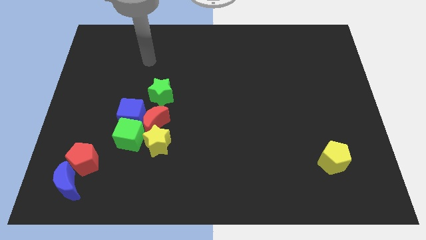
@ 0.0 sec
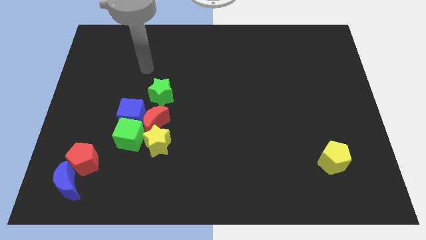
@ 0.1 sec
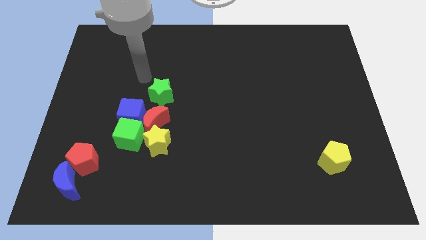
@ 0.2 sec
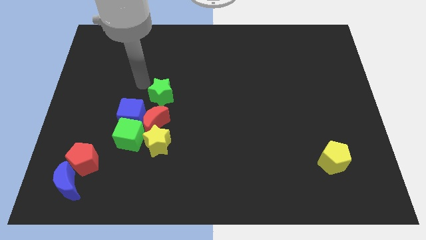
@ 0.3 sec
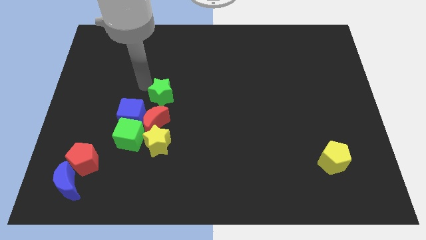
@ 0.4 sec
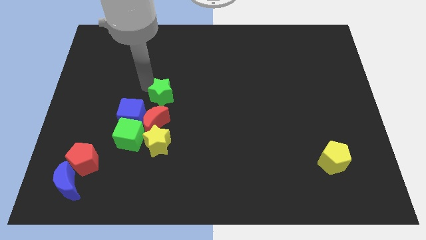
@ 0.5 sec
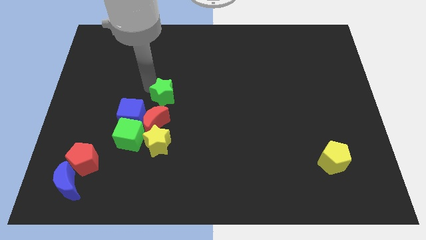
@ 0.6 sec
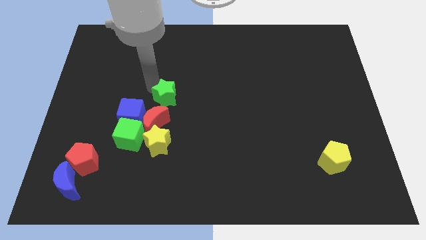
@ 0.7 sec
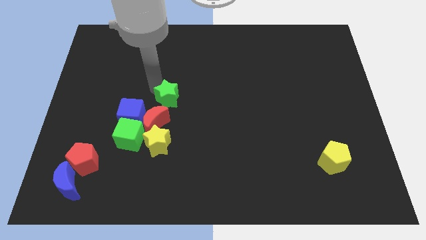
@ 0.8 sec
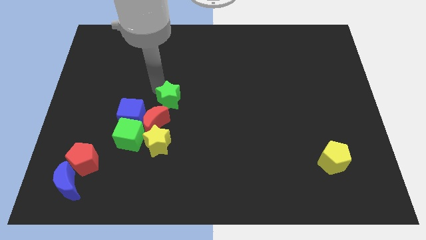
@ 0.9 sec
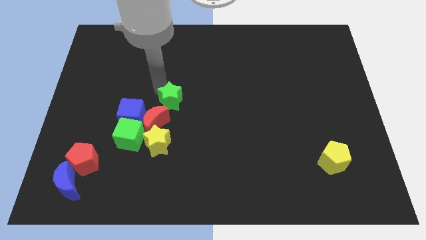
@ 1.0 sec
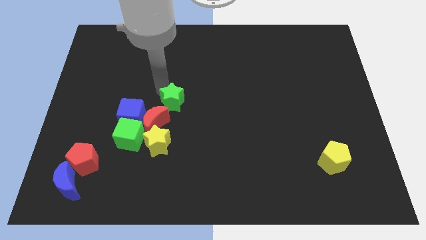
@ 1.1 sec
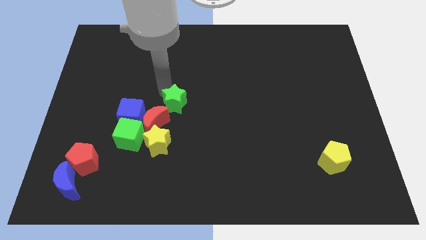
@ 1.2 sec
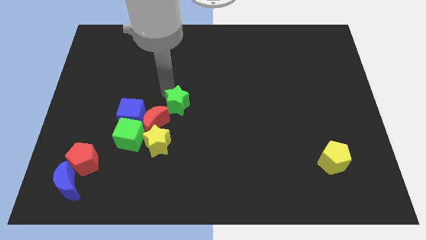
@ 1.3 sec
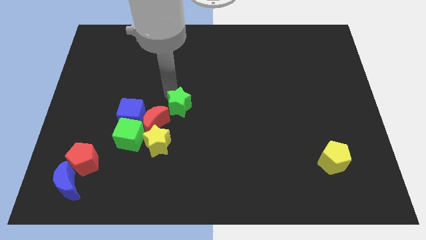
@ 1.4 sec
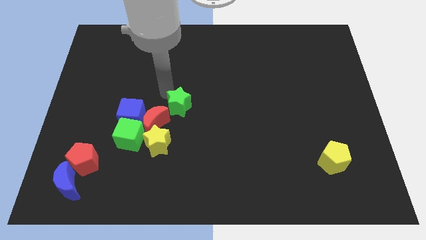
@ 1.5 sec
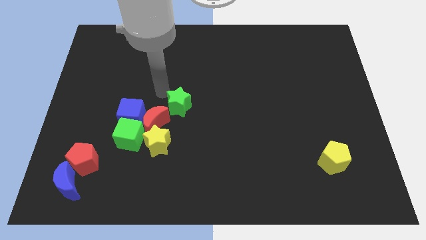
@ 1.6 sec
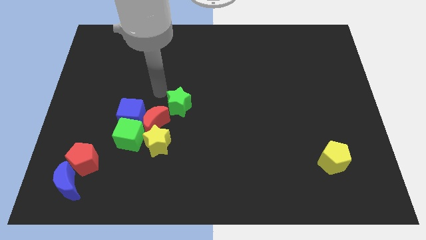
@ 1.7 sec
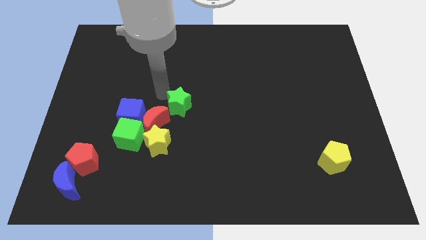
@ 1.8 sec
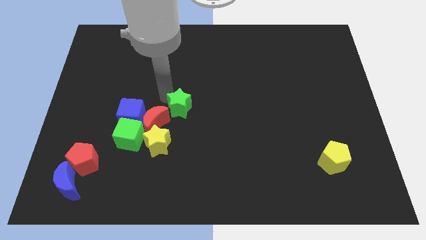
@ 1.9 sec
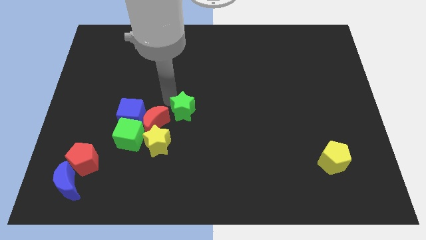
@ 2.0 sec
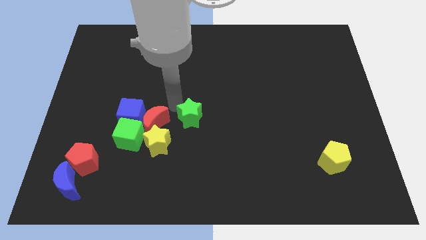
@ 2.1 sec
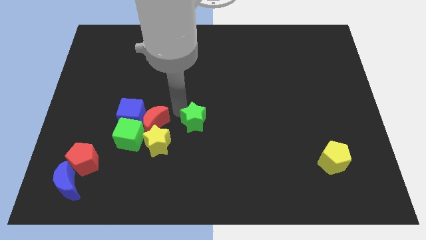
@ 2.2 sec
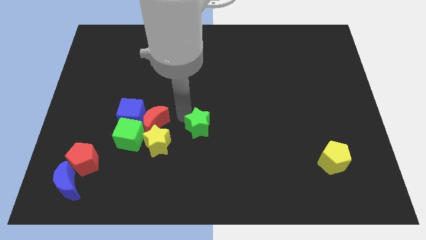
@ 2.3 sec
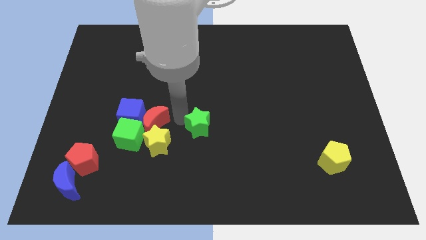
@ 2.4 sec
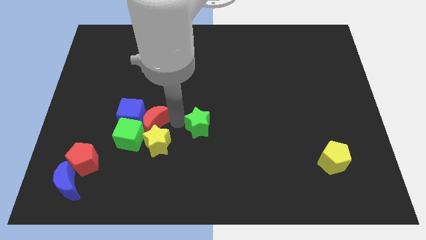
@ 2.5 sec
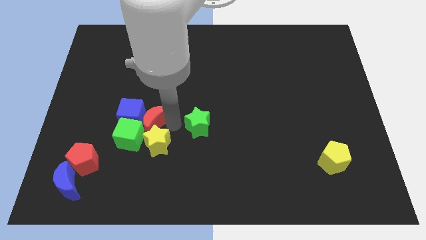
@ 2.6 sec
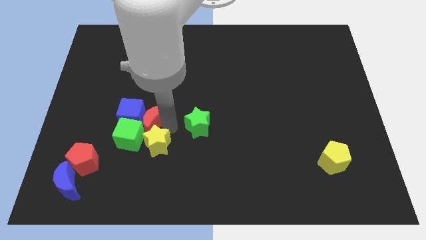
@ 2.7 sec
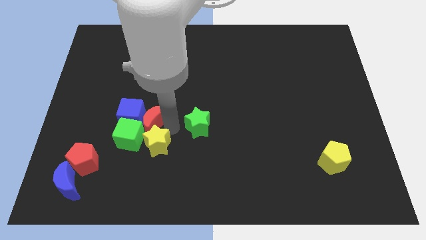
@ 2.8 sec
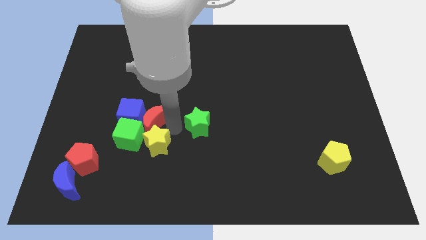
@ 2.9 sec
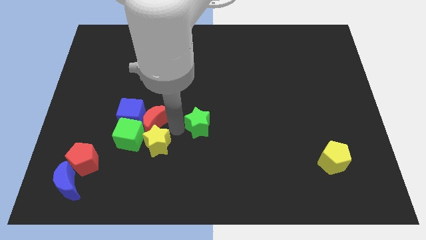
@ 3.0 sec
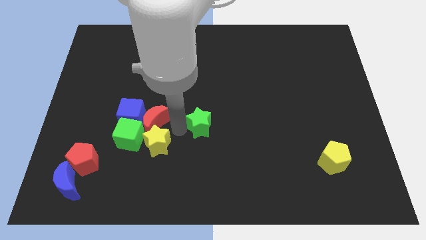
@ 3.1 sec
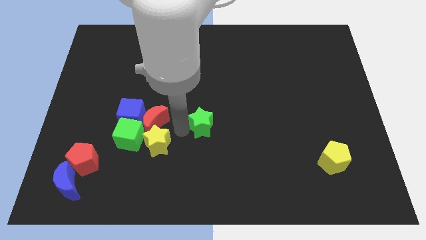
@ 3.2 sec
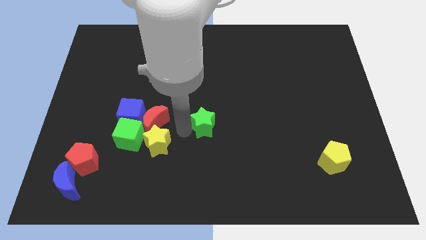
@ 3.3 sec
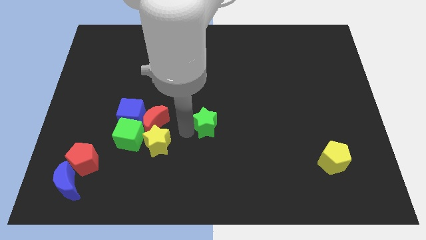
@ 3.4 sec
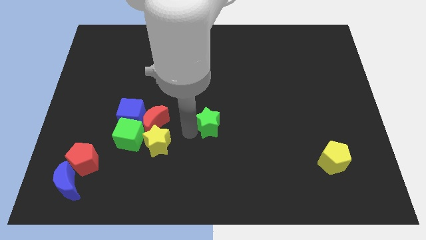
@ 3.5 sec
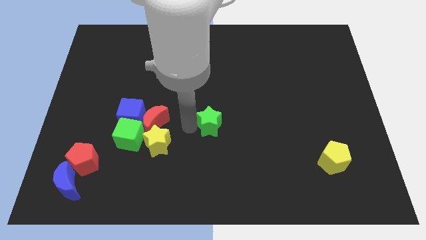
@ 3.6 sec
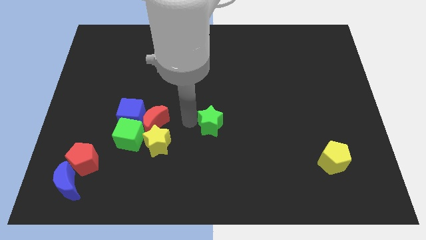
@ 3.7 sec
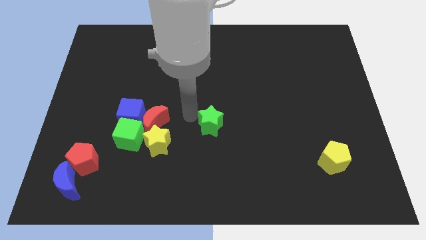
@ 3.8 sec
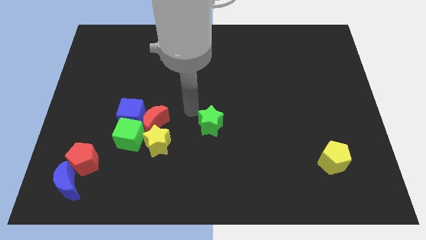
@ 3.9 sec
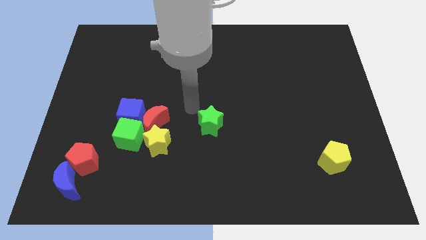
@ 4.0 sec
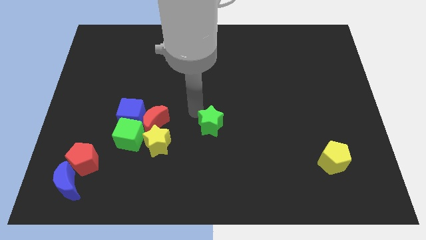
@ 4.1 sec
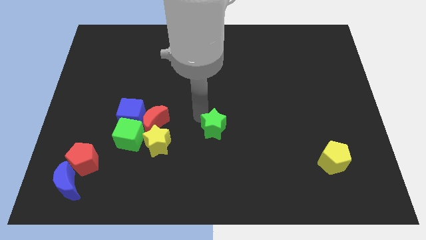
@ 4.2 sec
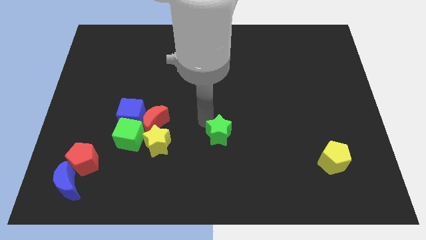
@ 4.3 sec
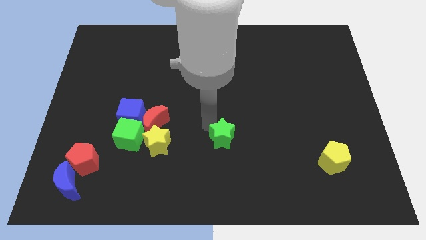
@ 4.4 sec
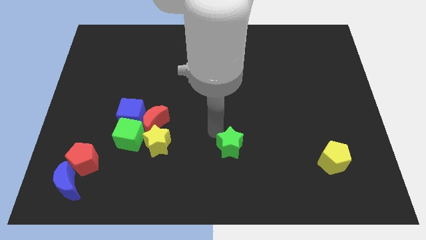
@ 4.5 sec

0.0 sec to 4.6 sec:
slide the green star diagonally down and right

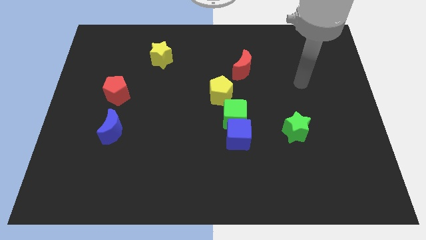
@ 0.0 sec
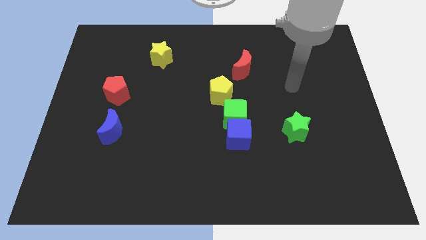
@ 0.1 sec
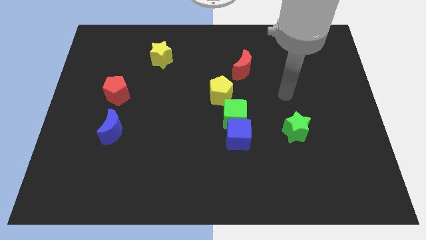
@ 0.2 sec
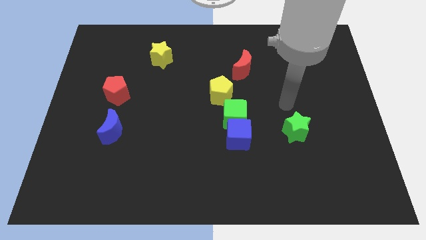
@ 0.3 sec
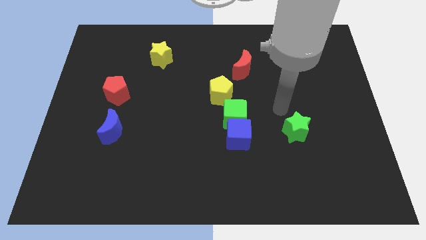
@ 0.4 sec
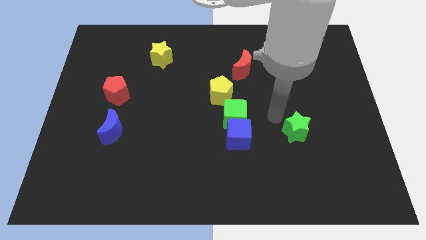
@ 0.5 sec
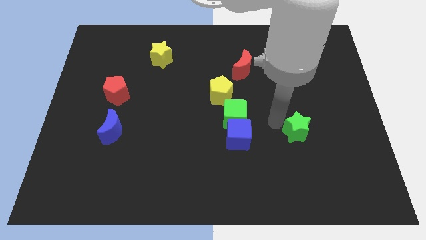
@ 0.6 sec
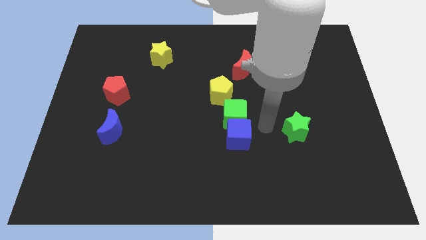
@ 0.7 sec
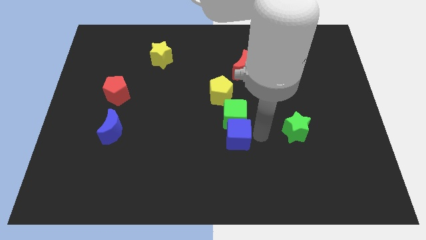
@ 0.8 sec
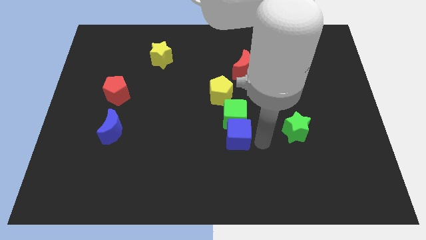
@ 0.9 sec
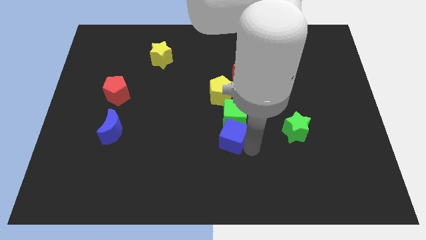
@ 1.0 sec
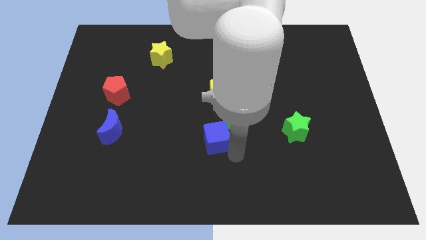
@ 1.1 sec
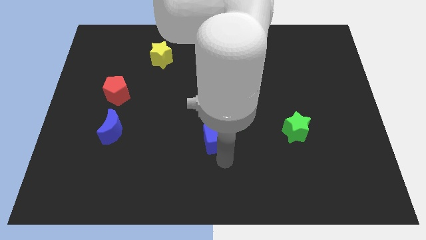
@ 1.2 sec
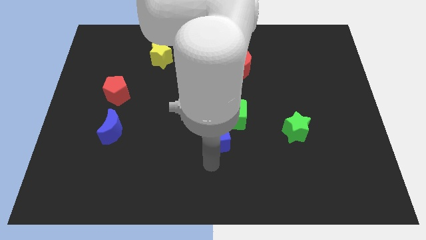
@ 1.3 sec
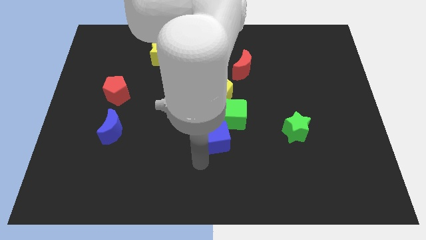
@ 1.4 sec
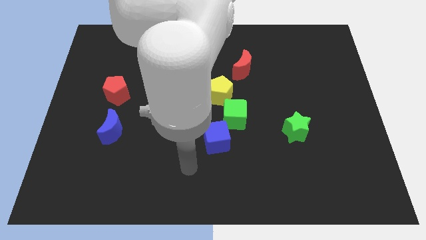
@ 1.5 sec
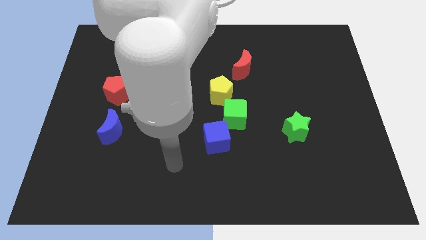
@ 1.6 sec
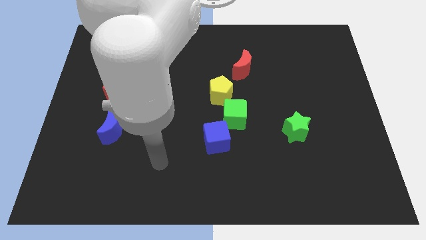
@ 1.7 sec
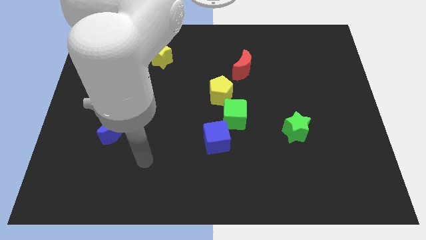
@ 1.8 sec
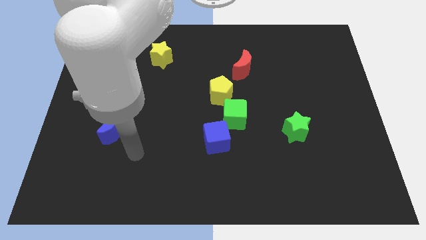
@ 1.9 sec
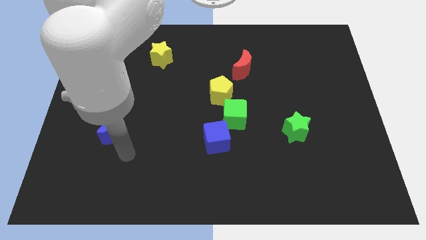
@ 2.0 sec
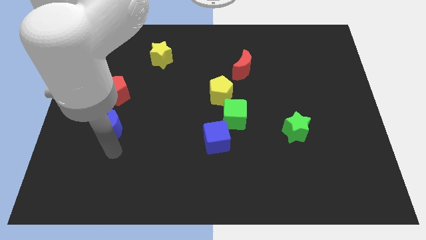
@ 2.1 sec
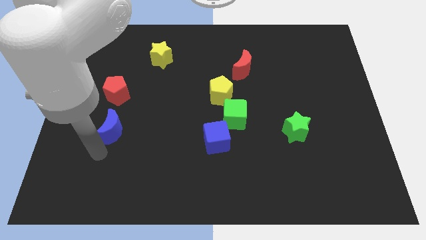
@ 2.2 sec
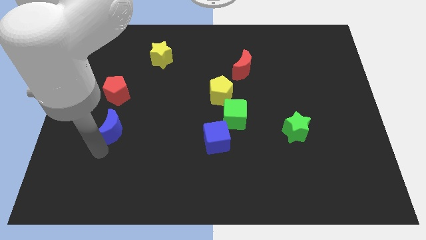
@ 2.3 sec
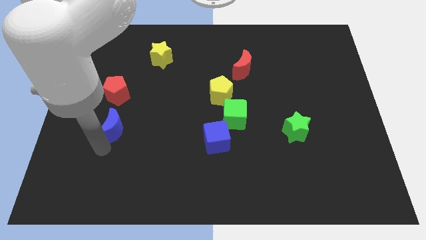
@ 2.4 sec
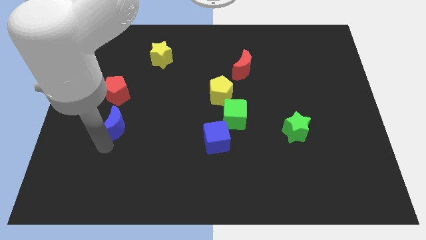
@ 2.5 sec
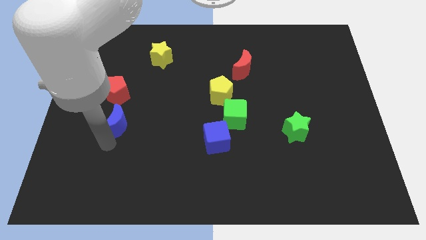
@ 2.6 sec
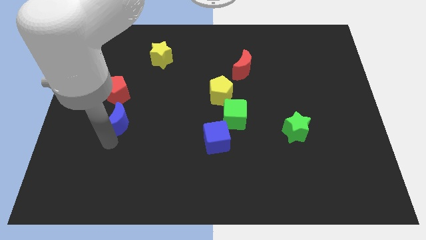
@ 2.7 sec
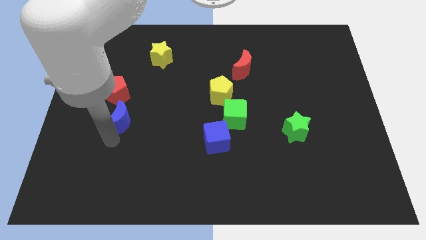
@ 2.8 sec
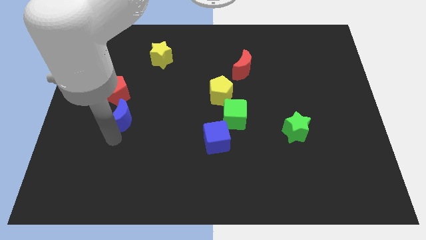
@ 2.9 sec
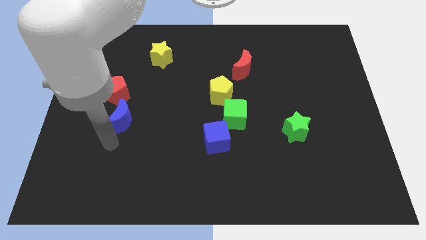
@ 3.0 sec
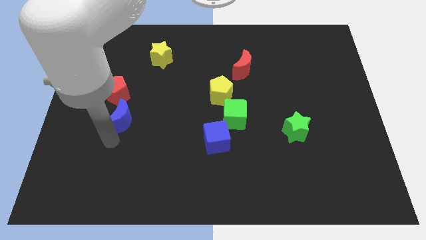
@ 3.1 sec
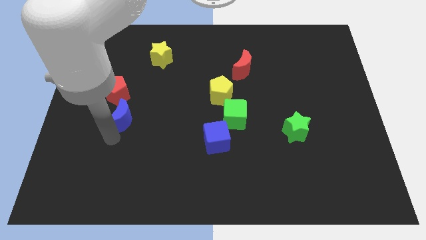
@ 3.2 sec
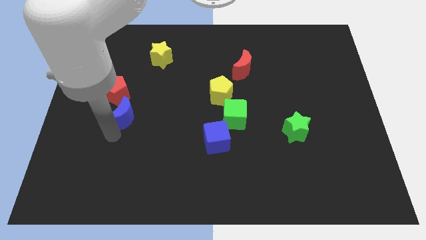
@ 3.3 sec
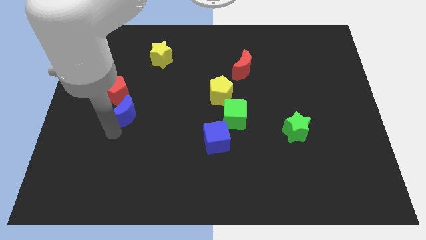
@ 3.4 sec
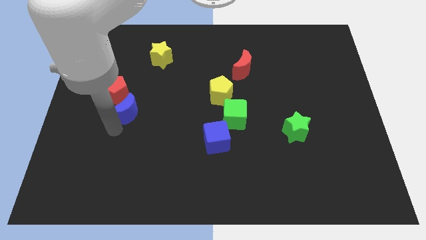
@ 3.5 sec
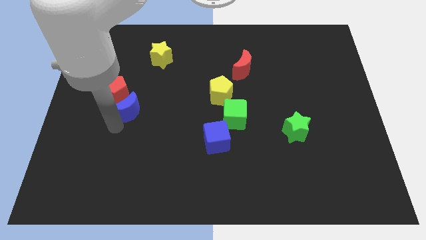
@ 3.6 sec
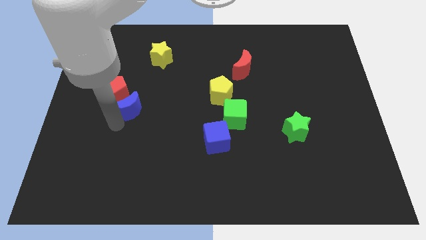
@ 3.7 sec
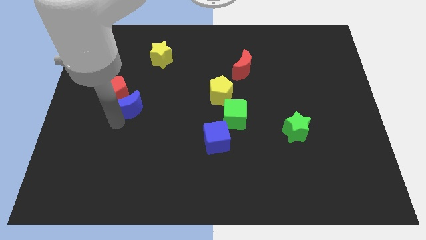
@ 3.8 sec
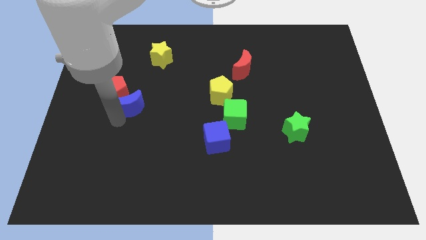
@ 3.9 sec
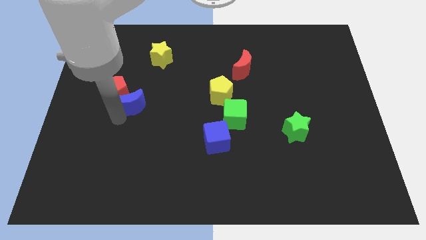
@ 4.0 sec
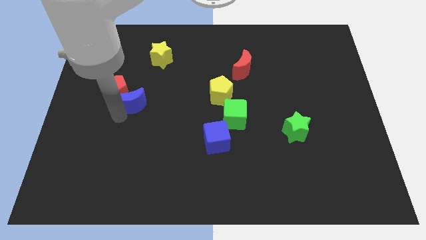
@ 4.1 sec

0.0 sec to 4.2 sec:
slide the blue moon upwards a little bit
